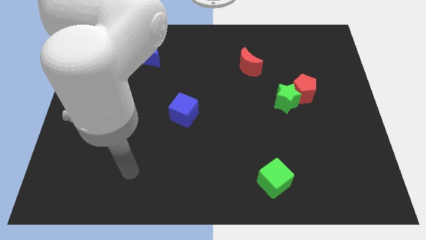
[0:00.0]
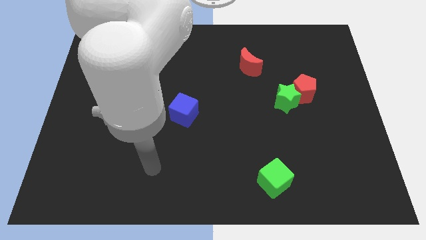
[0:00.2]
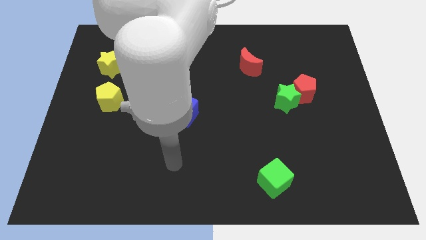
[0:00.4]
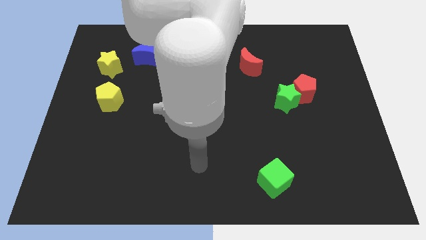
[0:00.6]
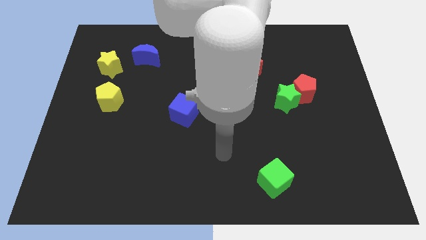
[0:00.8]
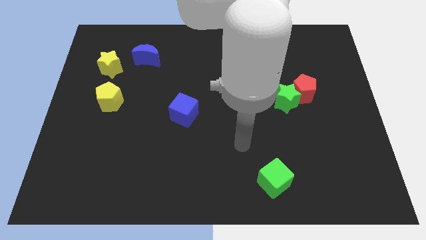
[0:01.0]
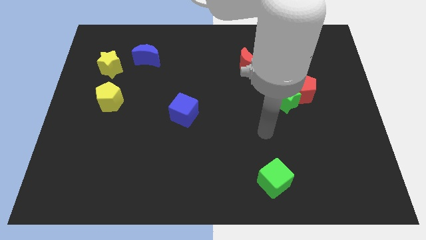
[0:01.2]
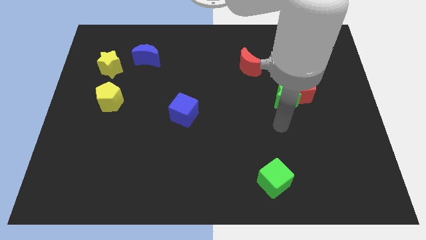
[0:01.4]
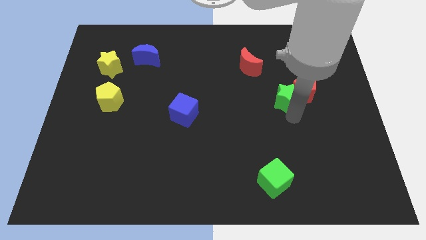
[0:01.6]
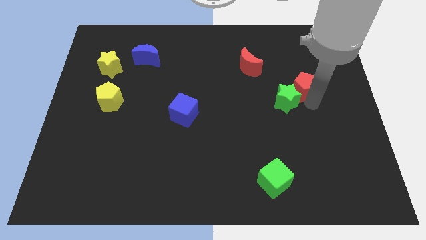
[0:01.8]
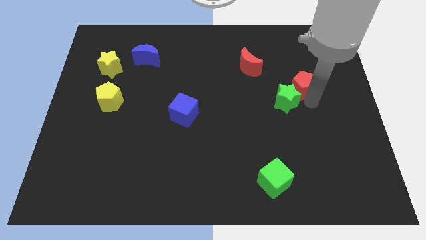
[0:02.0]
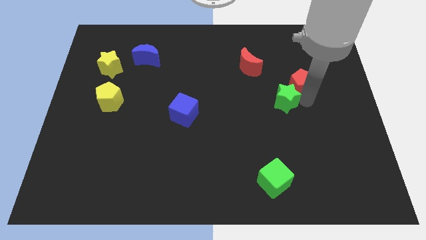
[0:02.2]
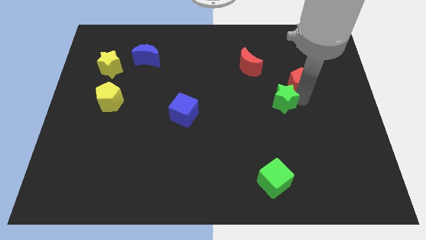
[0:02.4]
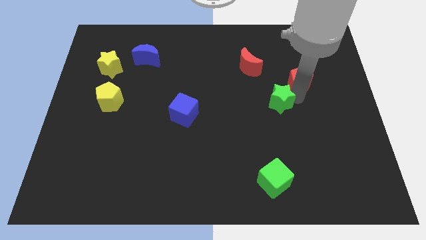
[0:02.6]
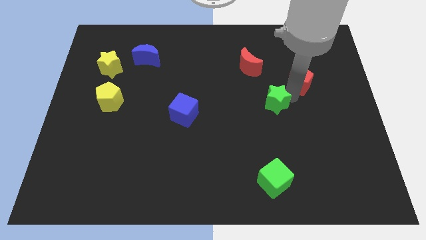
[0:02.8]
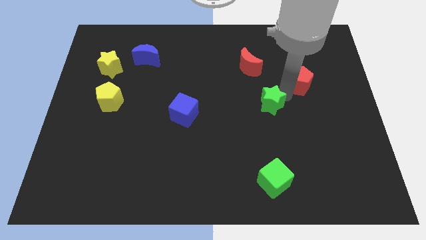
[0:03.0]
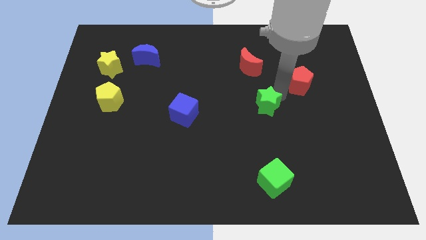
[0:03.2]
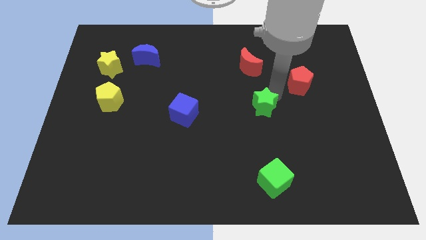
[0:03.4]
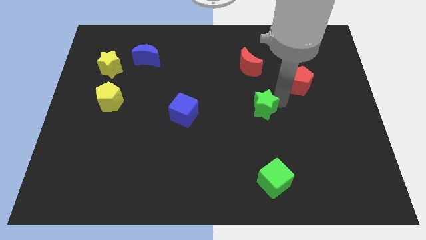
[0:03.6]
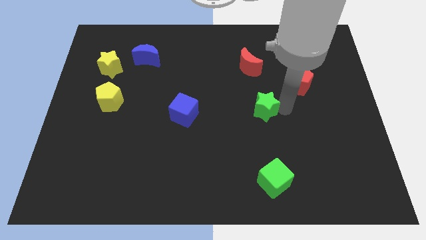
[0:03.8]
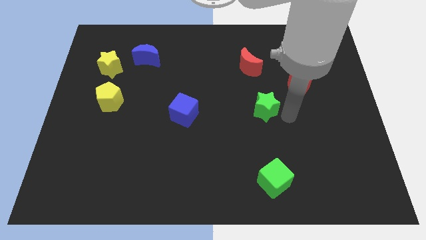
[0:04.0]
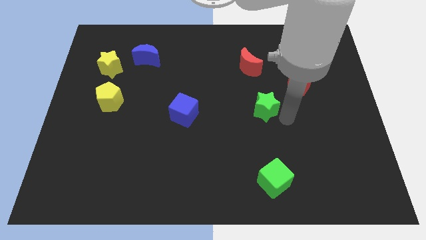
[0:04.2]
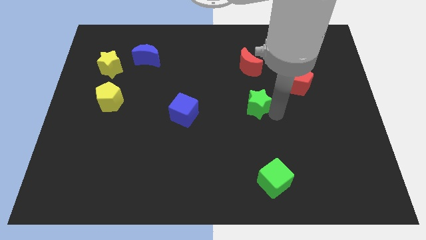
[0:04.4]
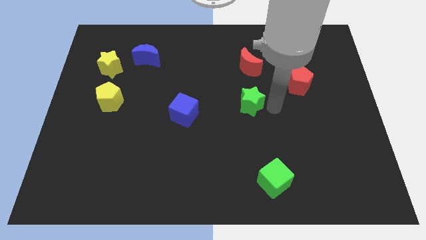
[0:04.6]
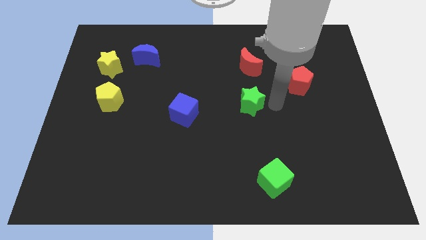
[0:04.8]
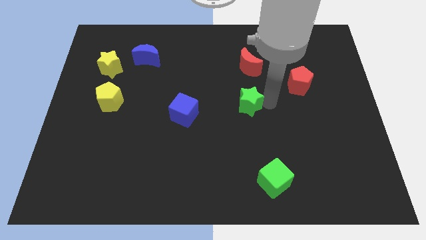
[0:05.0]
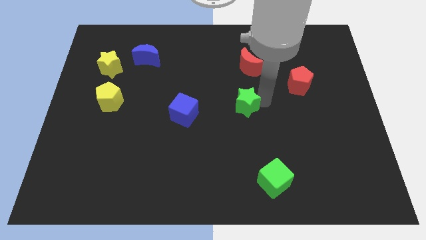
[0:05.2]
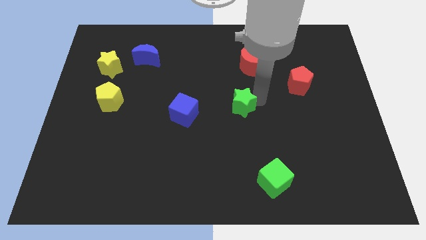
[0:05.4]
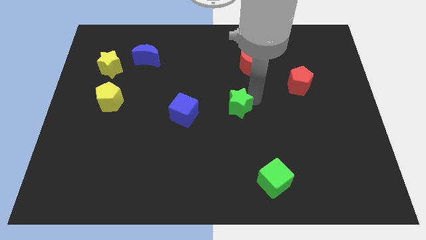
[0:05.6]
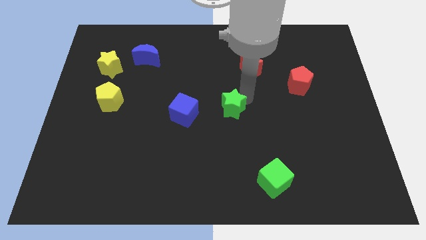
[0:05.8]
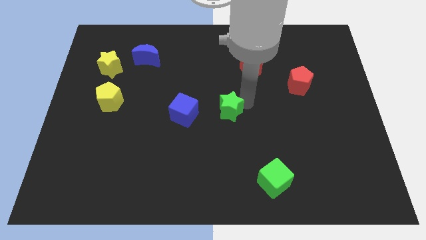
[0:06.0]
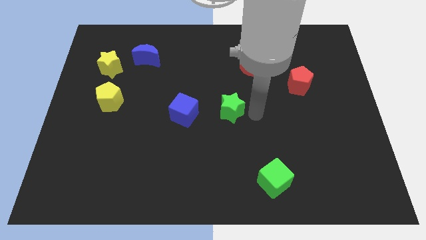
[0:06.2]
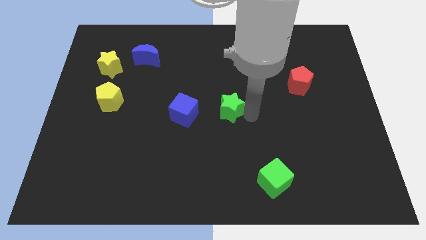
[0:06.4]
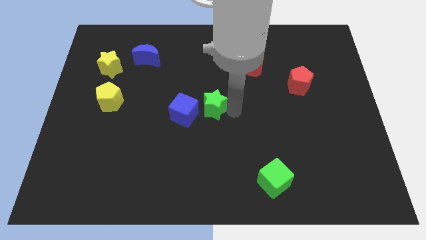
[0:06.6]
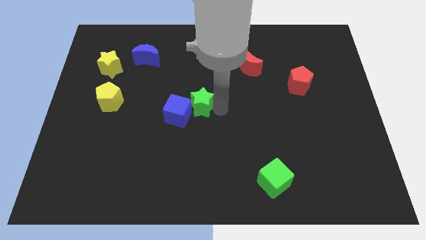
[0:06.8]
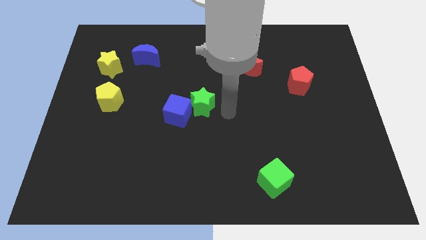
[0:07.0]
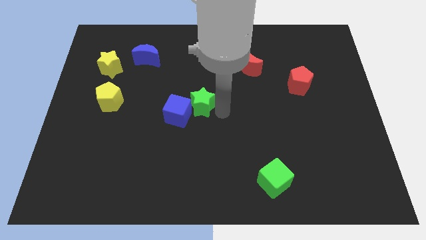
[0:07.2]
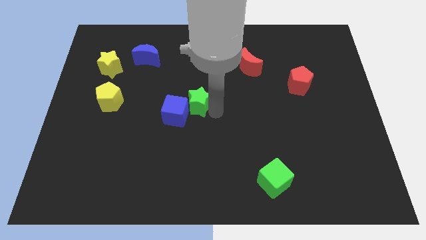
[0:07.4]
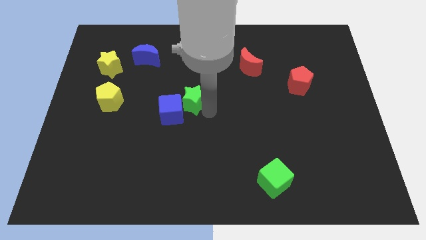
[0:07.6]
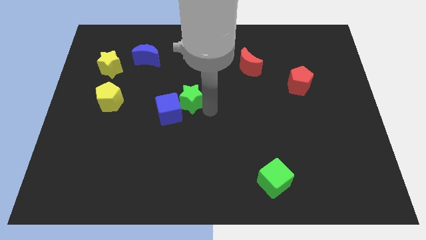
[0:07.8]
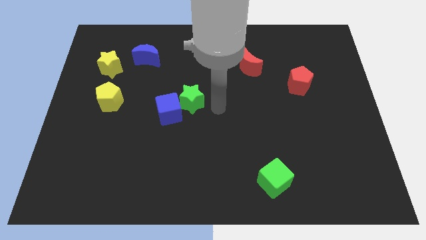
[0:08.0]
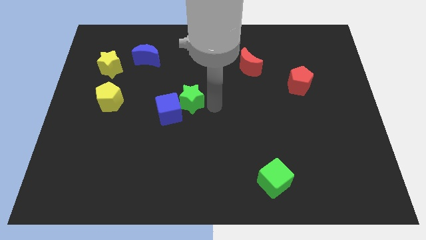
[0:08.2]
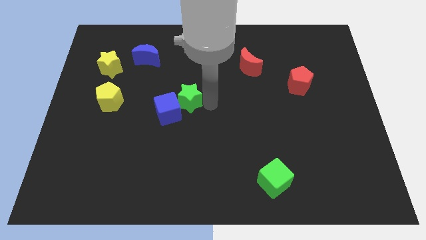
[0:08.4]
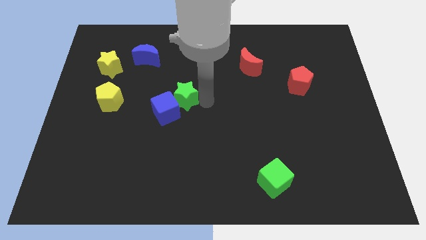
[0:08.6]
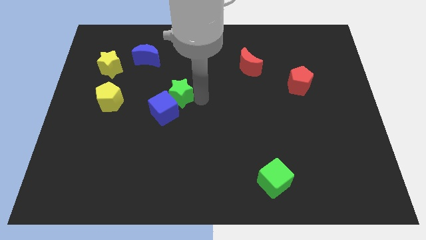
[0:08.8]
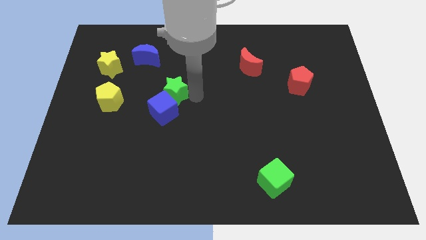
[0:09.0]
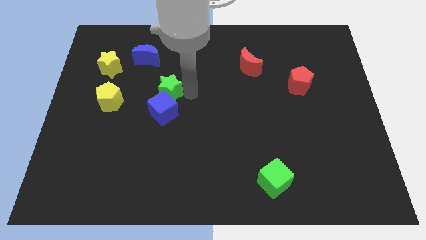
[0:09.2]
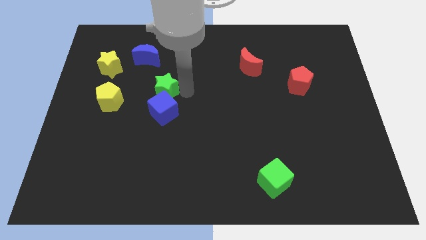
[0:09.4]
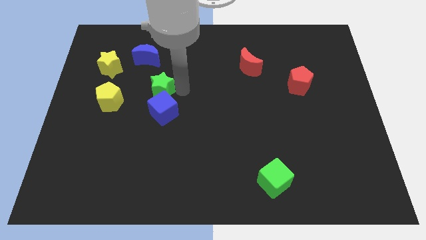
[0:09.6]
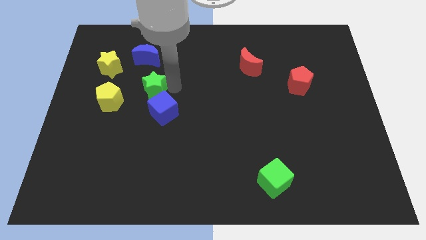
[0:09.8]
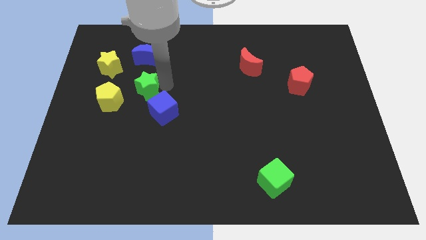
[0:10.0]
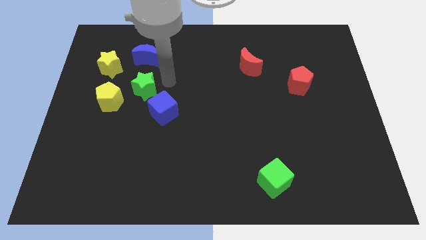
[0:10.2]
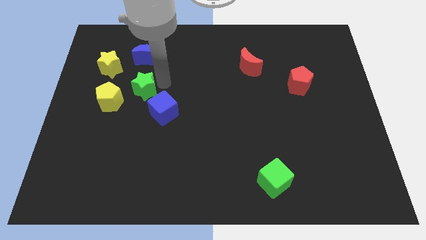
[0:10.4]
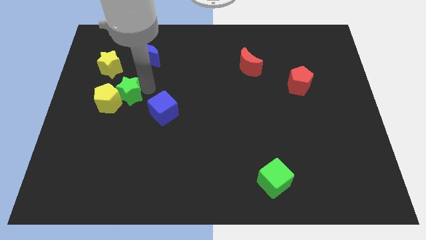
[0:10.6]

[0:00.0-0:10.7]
slide the green star to the yellow pentagon

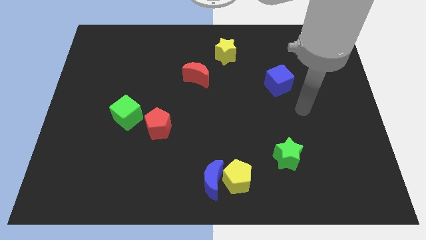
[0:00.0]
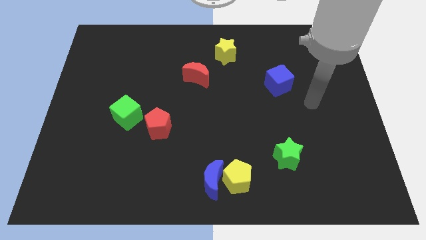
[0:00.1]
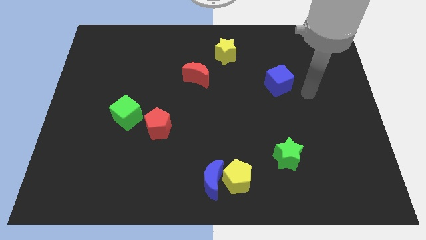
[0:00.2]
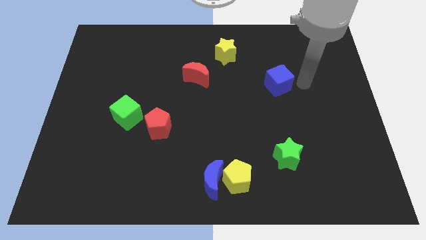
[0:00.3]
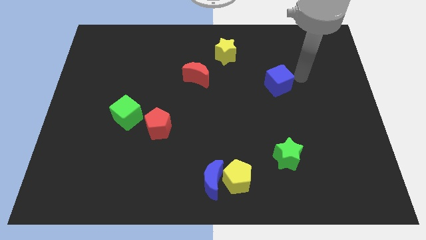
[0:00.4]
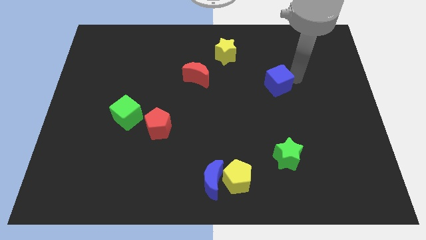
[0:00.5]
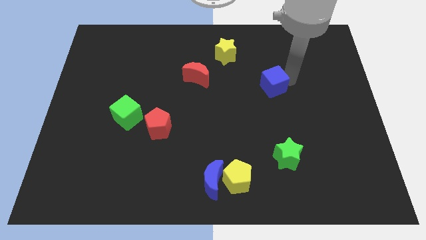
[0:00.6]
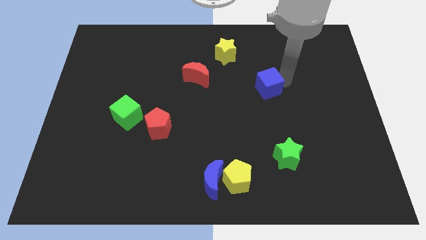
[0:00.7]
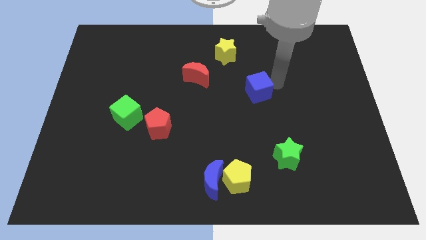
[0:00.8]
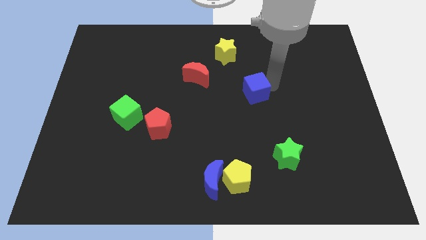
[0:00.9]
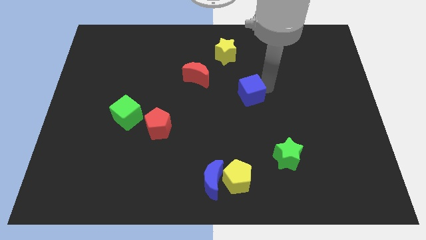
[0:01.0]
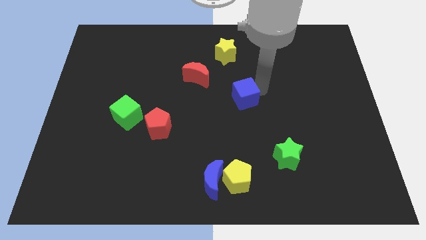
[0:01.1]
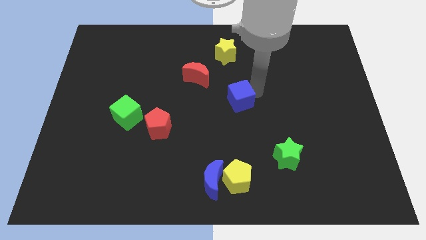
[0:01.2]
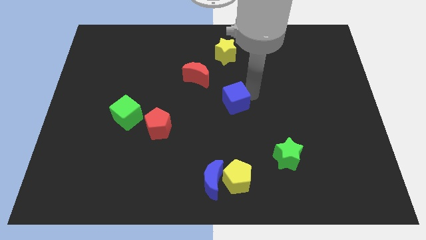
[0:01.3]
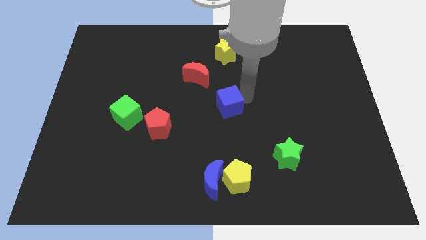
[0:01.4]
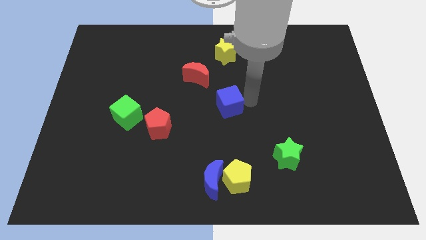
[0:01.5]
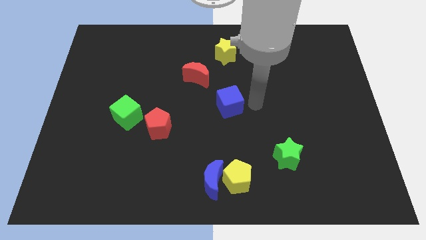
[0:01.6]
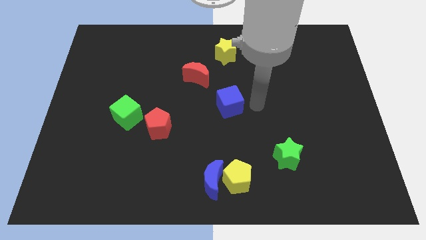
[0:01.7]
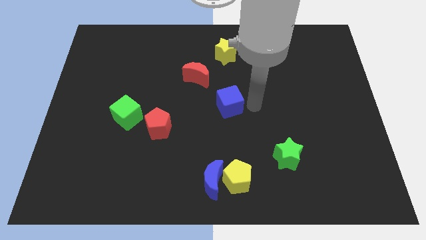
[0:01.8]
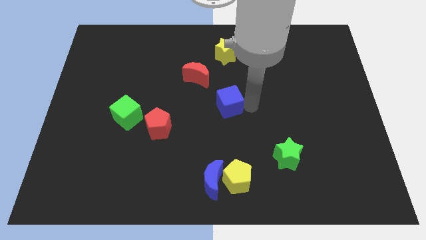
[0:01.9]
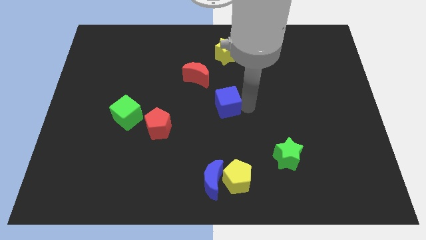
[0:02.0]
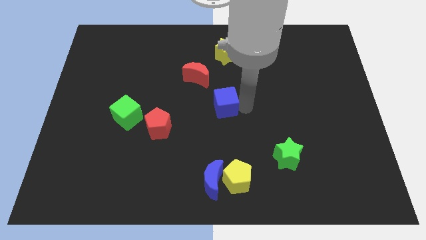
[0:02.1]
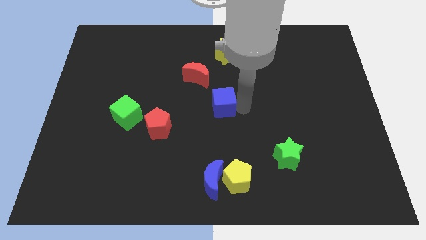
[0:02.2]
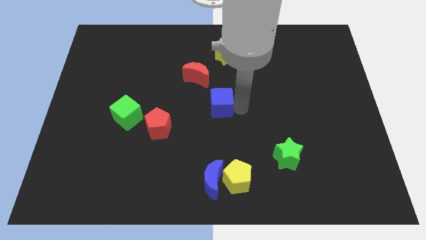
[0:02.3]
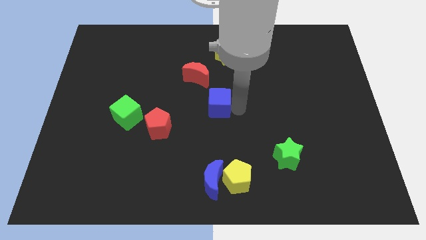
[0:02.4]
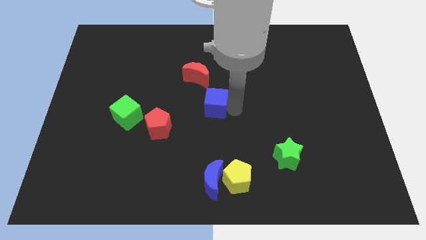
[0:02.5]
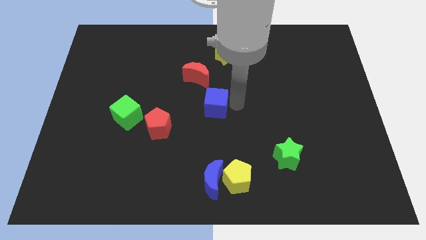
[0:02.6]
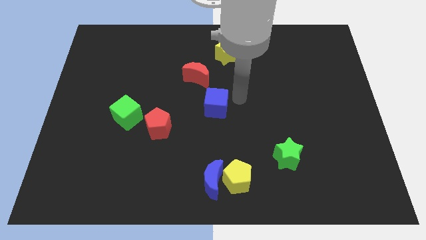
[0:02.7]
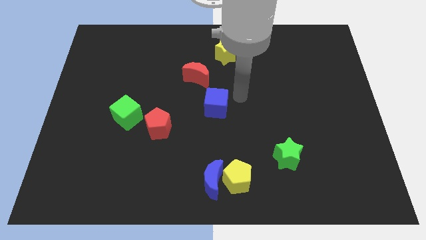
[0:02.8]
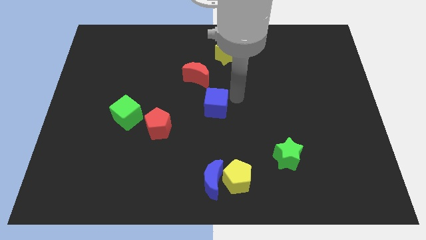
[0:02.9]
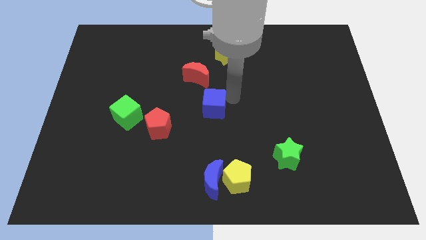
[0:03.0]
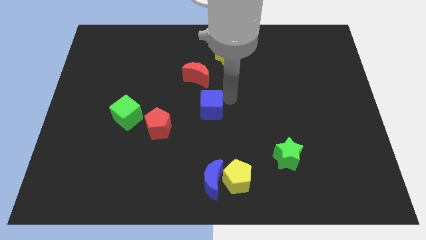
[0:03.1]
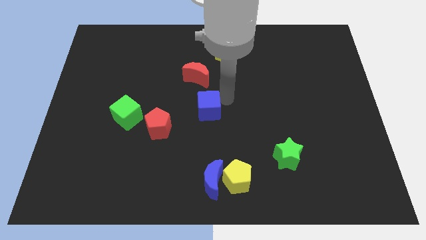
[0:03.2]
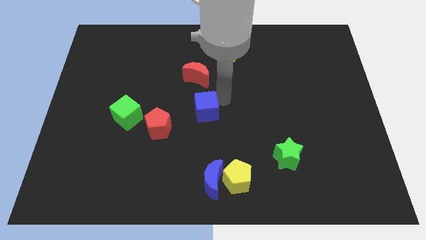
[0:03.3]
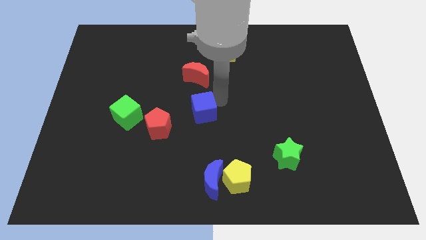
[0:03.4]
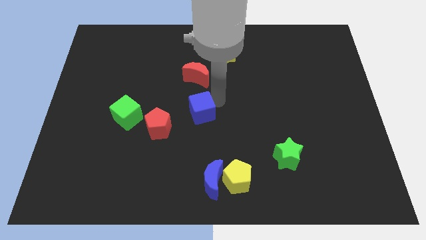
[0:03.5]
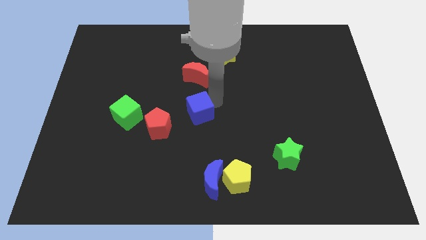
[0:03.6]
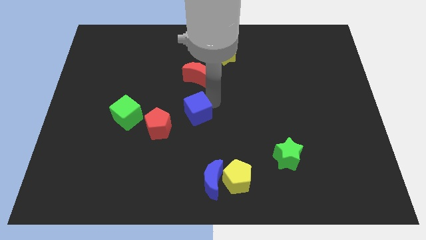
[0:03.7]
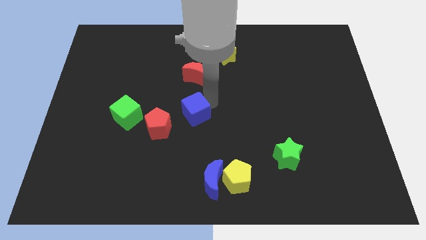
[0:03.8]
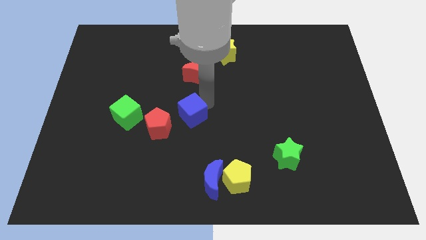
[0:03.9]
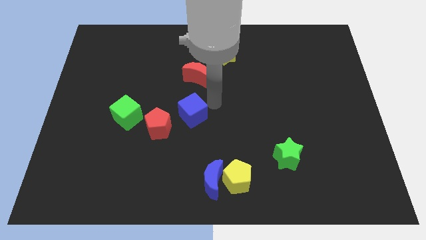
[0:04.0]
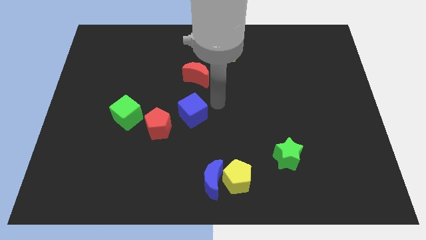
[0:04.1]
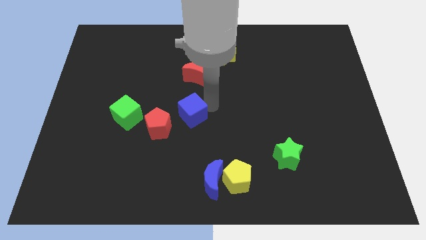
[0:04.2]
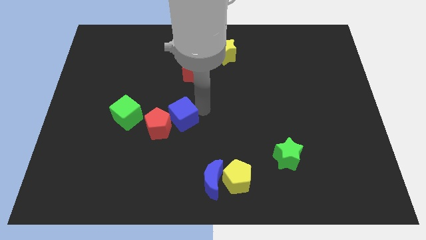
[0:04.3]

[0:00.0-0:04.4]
put the blue cube next to the red pentagon
